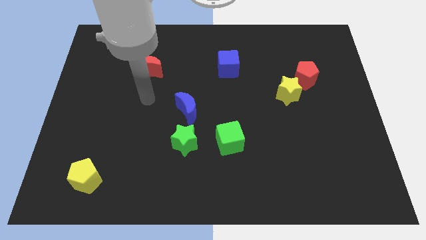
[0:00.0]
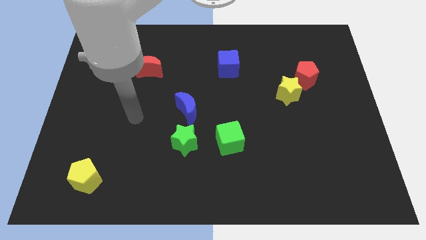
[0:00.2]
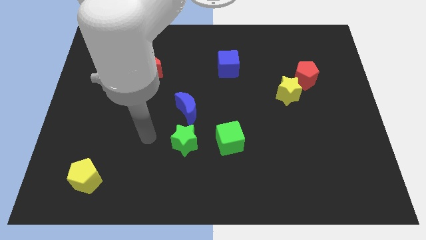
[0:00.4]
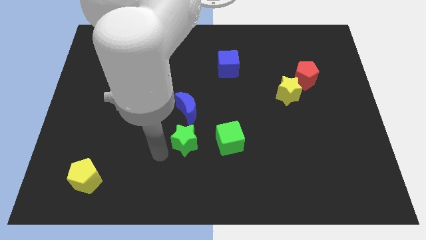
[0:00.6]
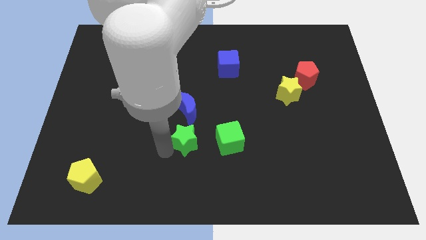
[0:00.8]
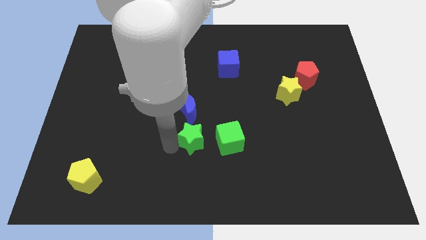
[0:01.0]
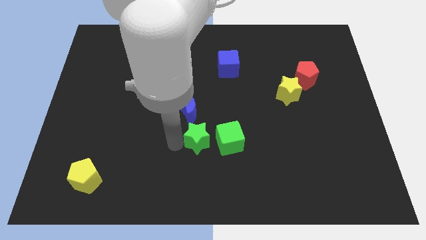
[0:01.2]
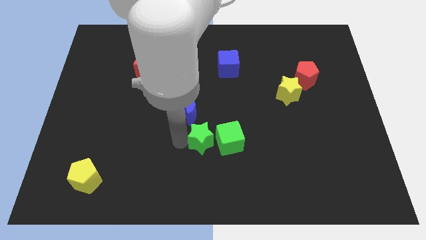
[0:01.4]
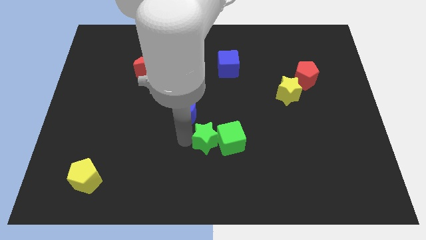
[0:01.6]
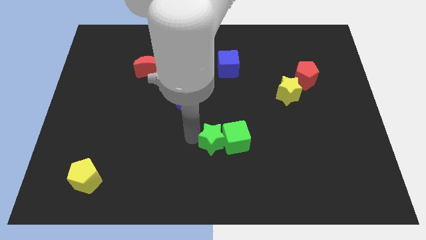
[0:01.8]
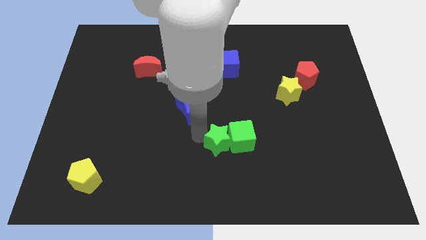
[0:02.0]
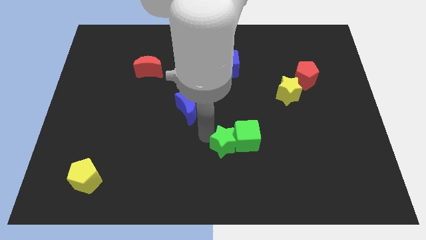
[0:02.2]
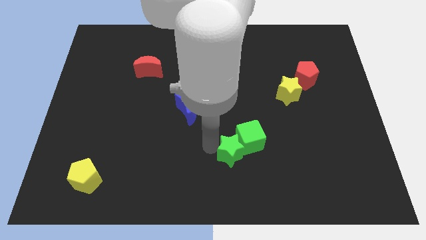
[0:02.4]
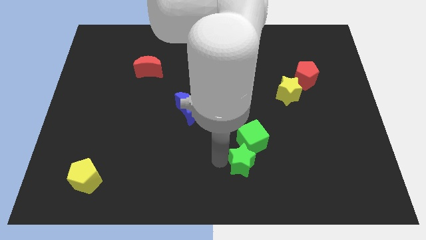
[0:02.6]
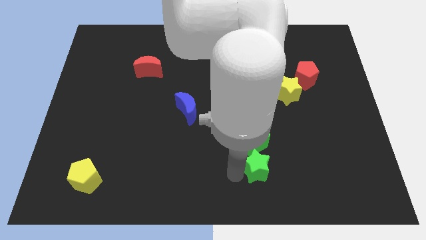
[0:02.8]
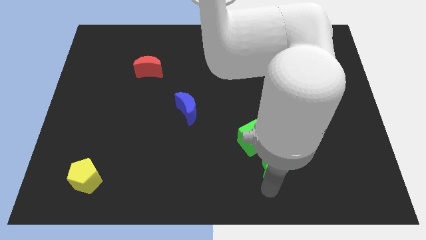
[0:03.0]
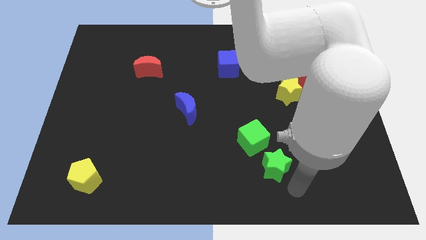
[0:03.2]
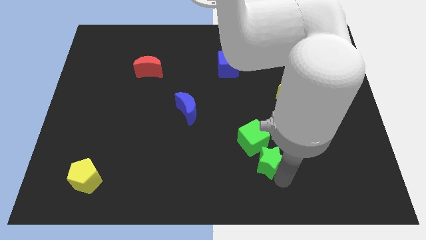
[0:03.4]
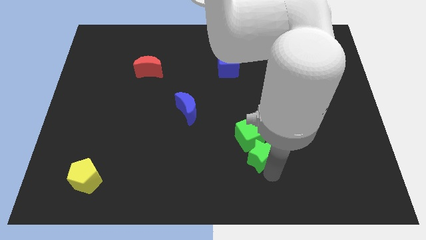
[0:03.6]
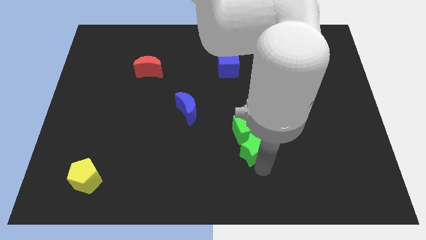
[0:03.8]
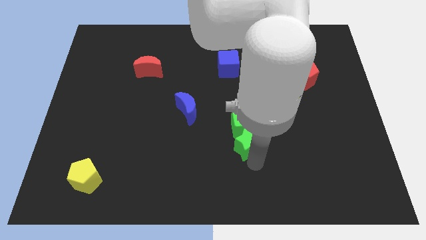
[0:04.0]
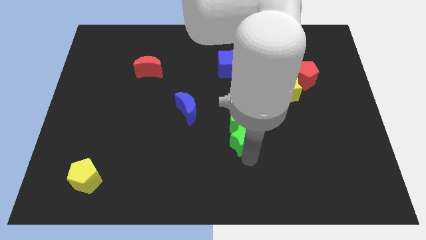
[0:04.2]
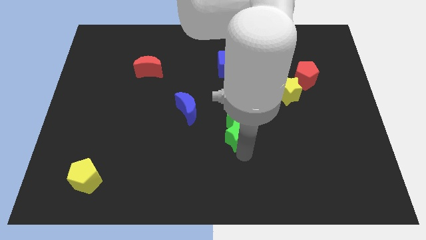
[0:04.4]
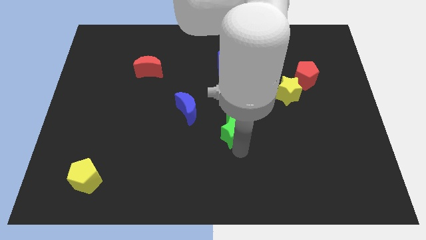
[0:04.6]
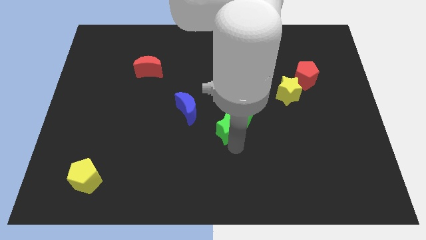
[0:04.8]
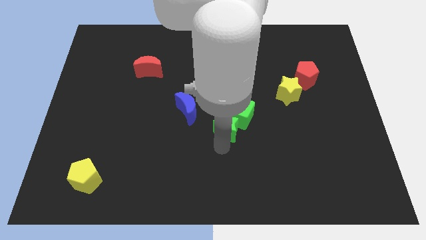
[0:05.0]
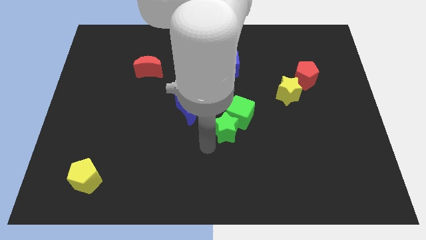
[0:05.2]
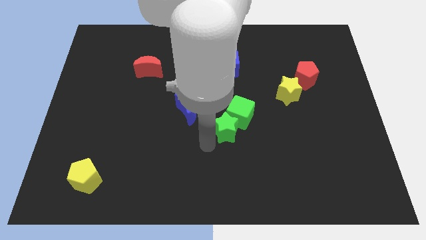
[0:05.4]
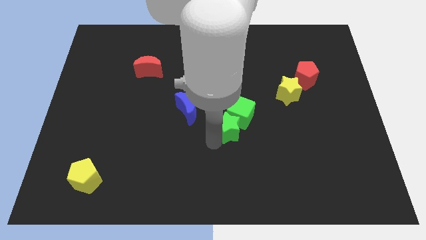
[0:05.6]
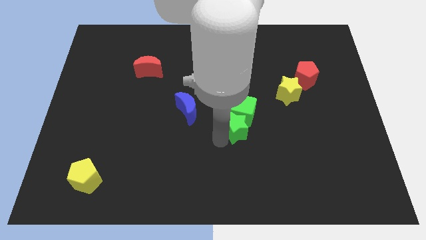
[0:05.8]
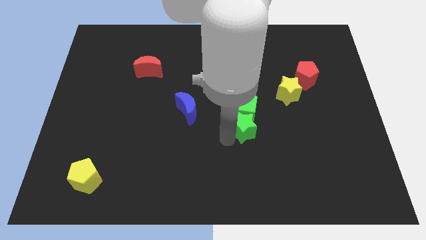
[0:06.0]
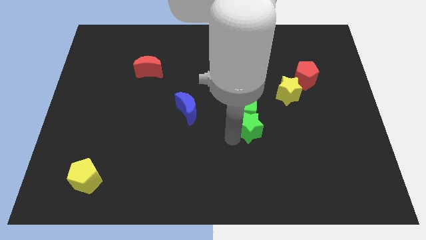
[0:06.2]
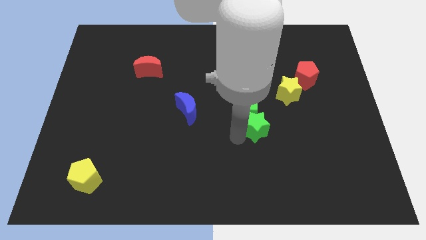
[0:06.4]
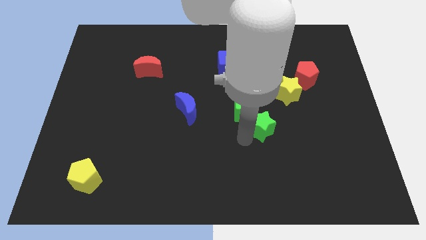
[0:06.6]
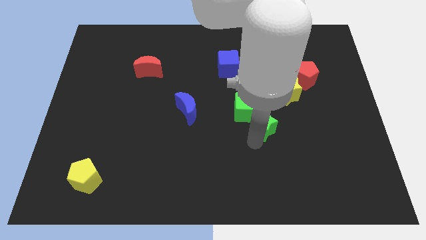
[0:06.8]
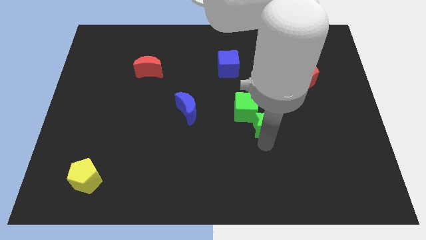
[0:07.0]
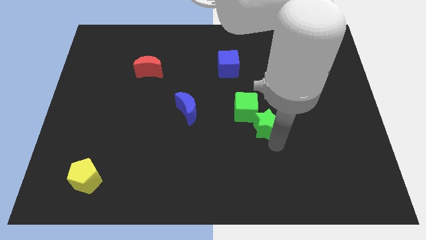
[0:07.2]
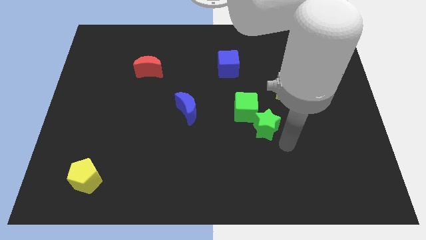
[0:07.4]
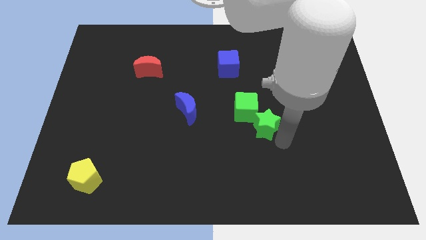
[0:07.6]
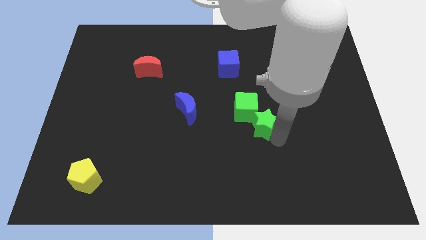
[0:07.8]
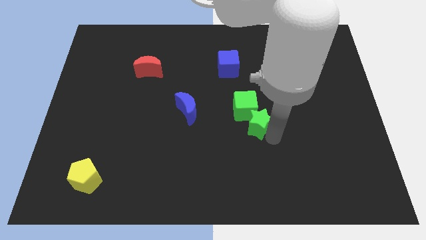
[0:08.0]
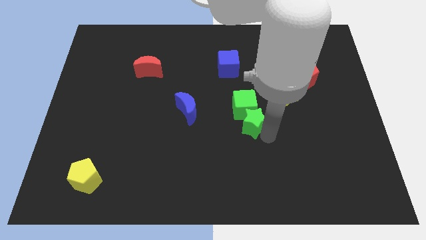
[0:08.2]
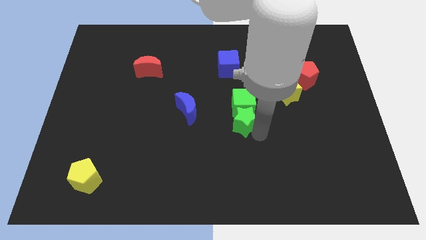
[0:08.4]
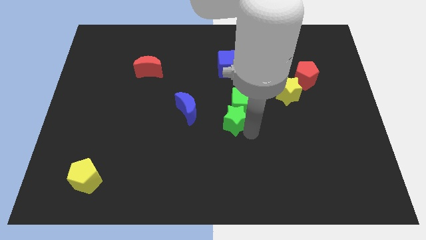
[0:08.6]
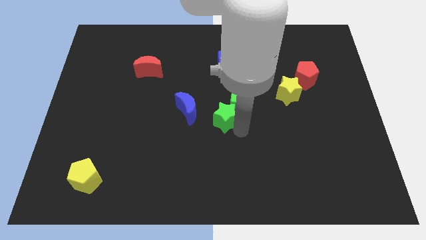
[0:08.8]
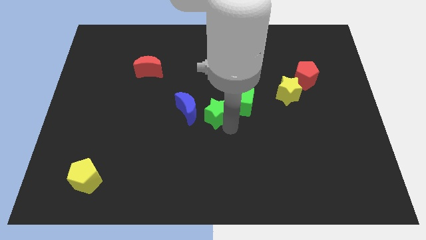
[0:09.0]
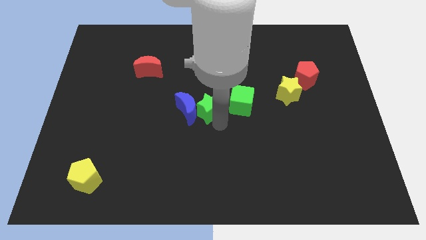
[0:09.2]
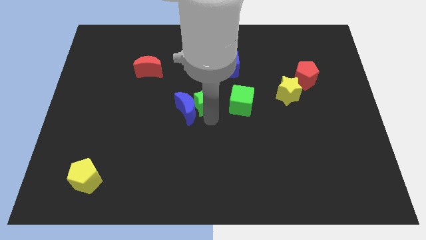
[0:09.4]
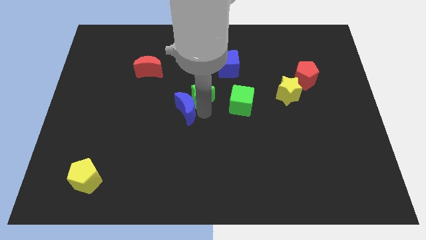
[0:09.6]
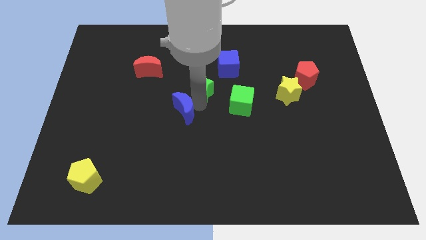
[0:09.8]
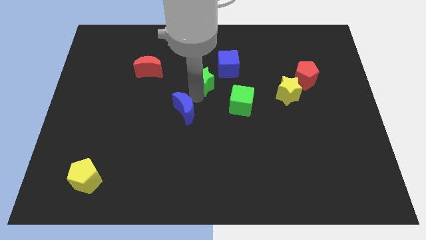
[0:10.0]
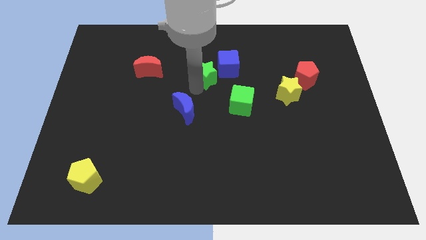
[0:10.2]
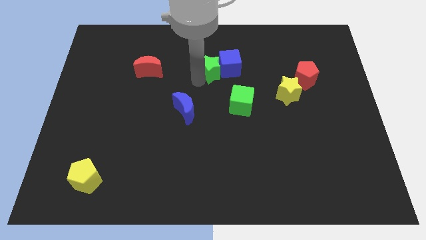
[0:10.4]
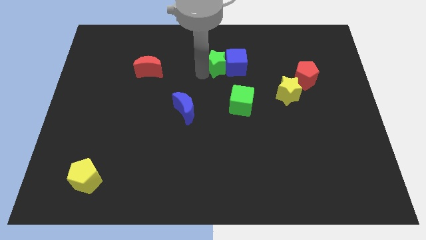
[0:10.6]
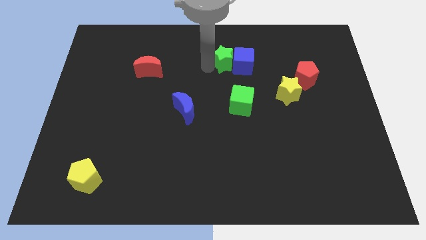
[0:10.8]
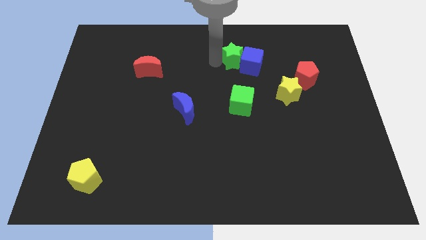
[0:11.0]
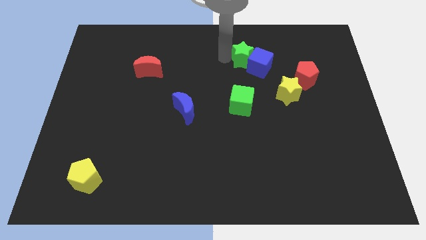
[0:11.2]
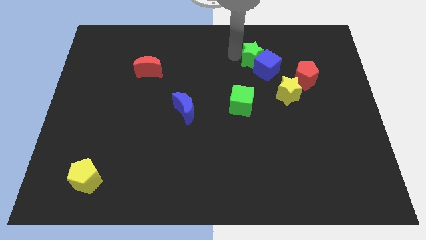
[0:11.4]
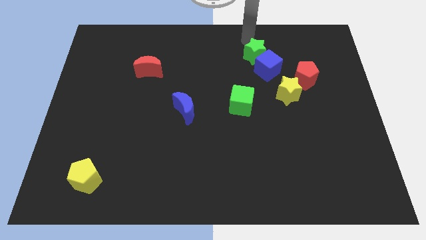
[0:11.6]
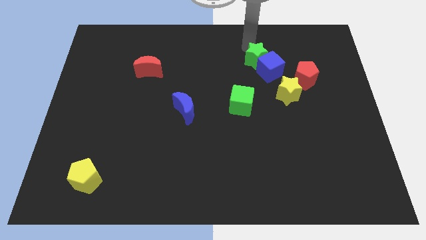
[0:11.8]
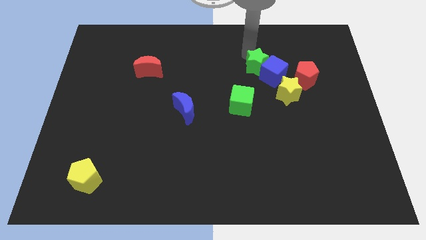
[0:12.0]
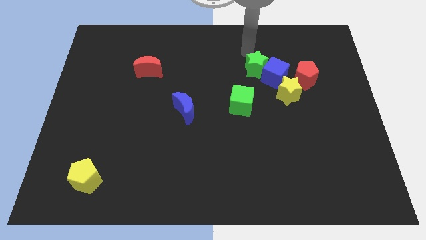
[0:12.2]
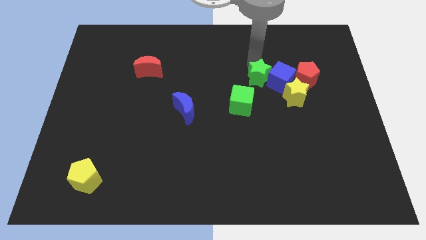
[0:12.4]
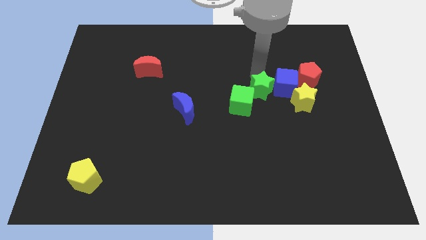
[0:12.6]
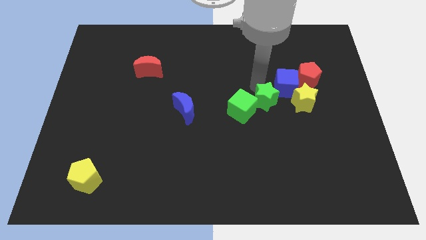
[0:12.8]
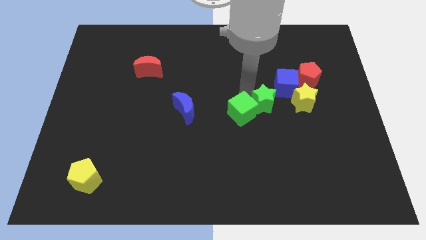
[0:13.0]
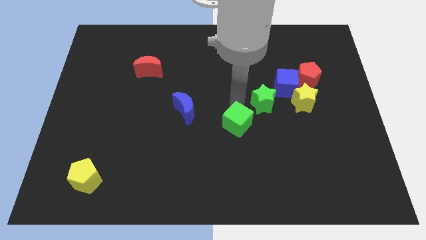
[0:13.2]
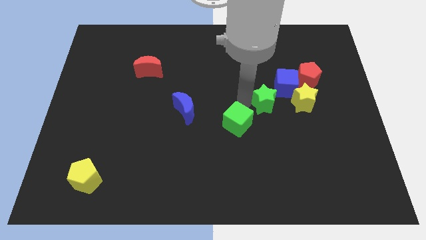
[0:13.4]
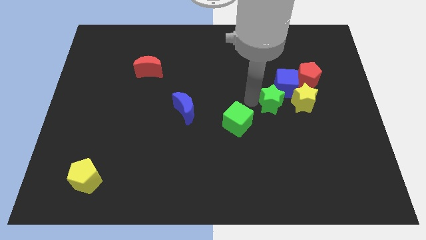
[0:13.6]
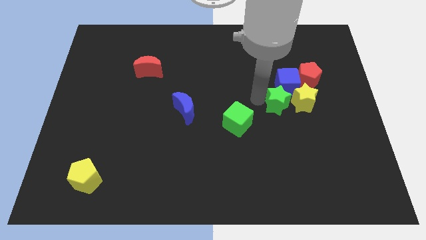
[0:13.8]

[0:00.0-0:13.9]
put the green star next to the yellow star
